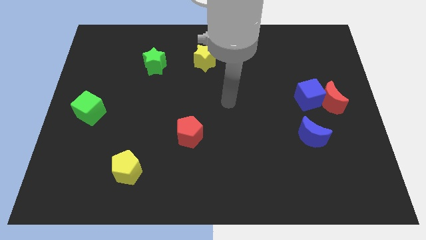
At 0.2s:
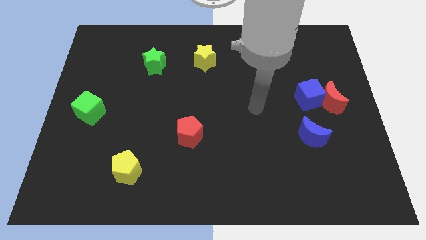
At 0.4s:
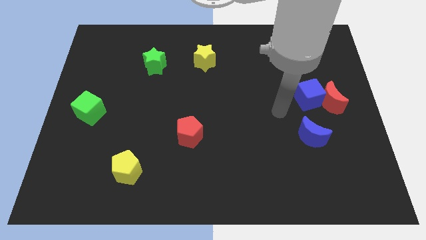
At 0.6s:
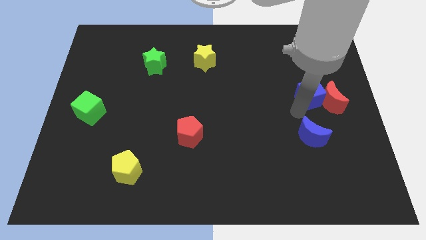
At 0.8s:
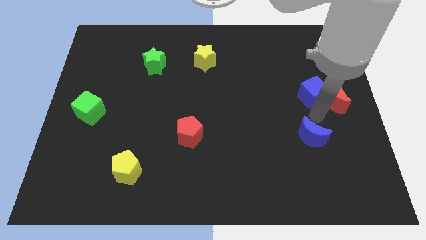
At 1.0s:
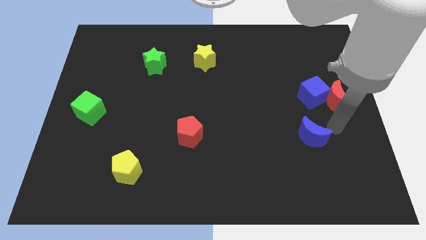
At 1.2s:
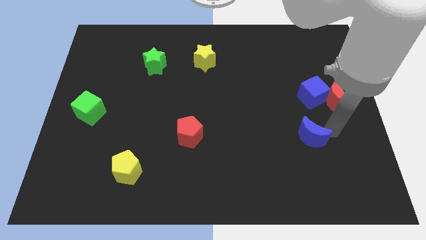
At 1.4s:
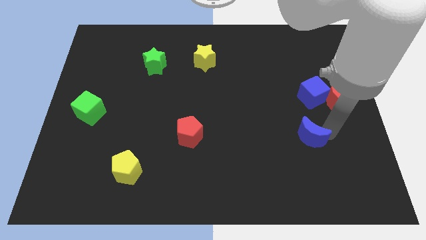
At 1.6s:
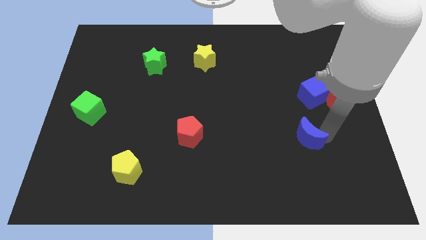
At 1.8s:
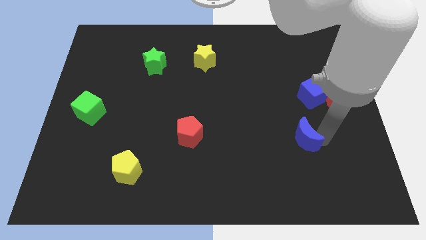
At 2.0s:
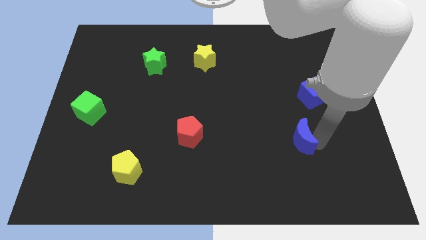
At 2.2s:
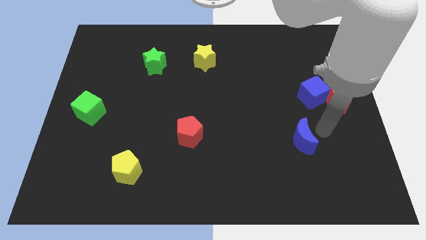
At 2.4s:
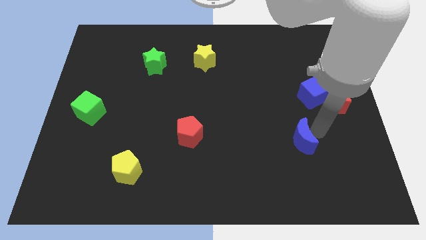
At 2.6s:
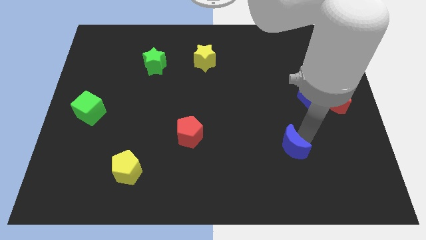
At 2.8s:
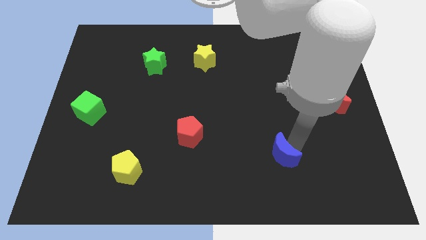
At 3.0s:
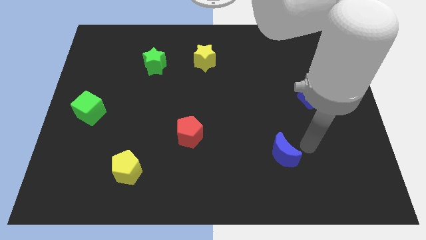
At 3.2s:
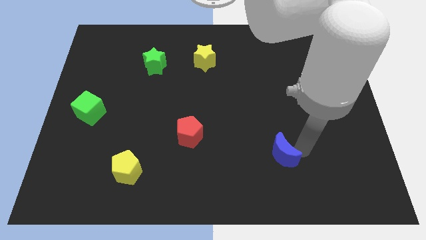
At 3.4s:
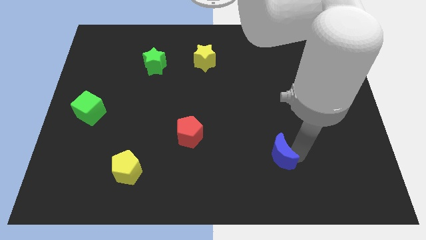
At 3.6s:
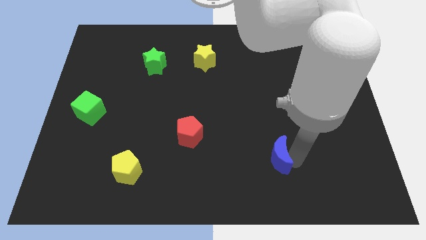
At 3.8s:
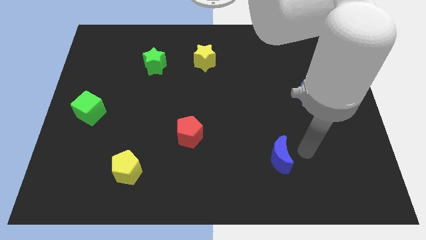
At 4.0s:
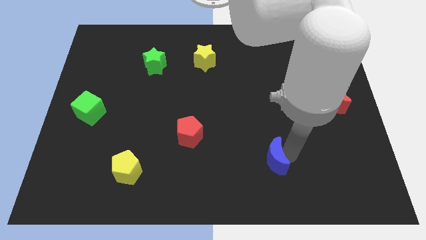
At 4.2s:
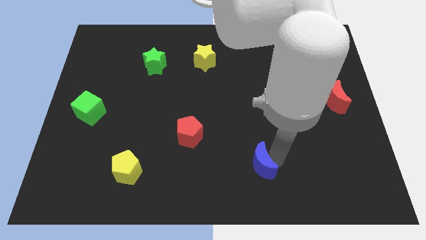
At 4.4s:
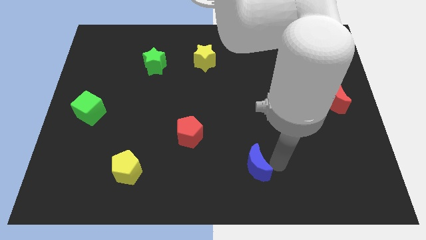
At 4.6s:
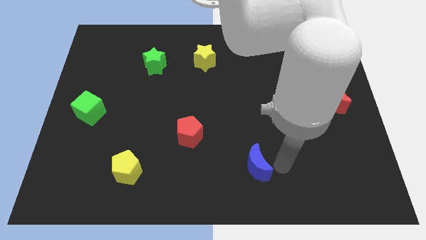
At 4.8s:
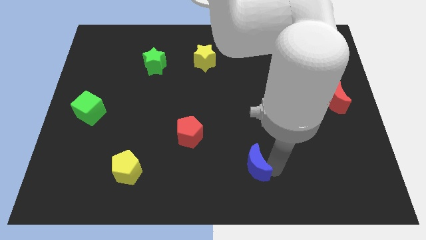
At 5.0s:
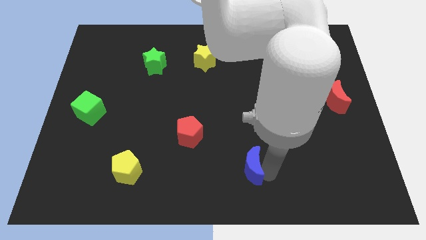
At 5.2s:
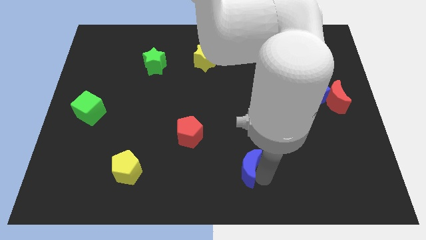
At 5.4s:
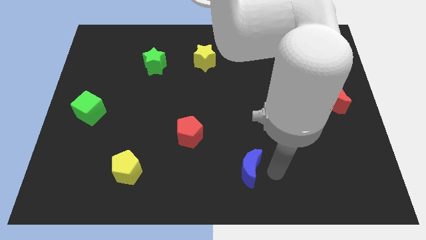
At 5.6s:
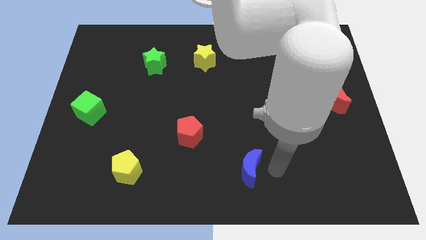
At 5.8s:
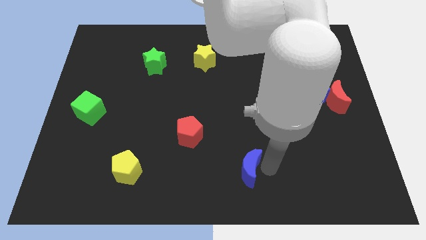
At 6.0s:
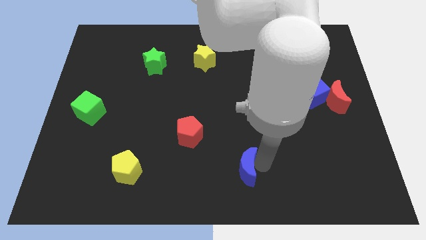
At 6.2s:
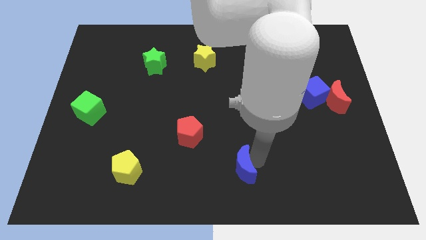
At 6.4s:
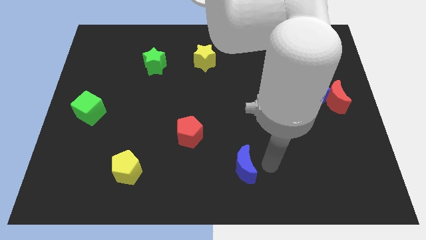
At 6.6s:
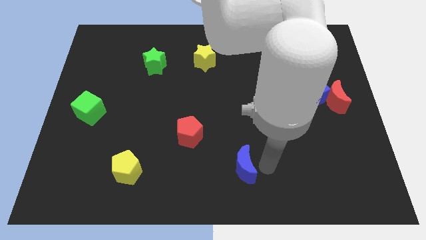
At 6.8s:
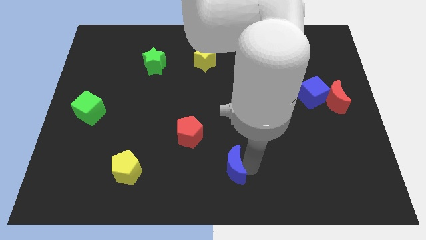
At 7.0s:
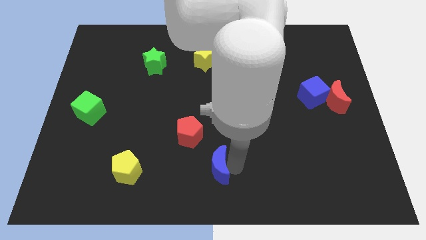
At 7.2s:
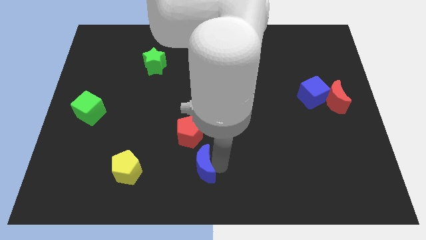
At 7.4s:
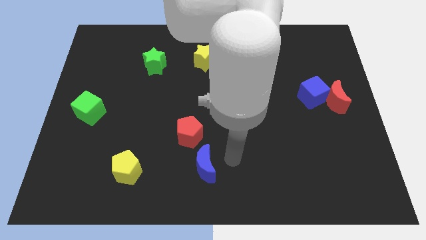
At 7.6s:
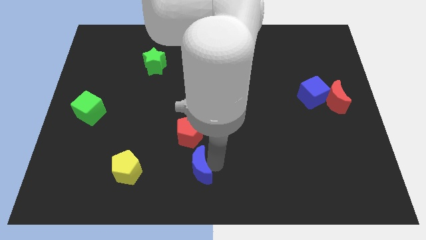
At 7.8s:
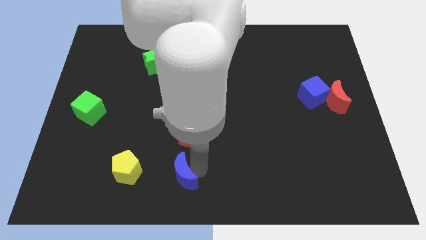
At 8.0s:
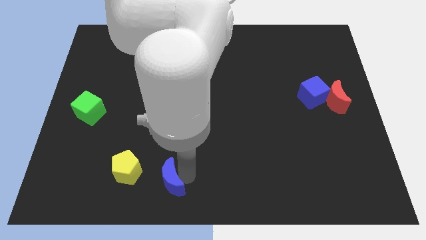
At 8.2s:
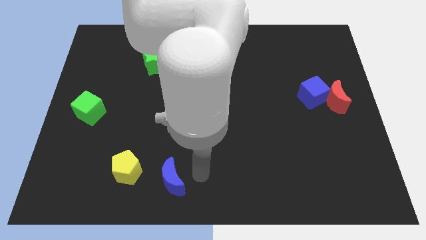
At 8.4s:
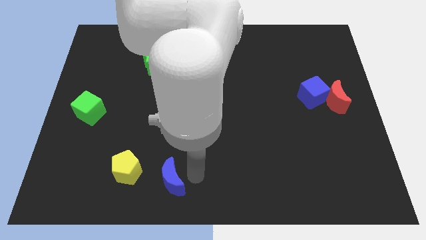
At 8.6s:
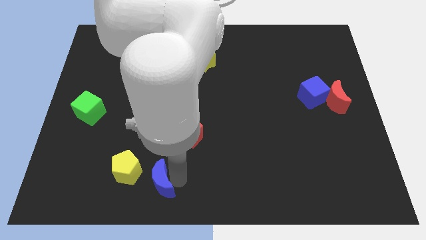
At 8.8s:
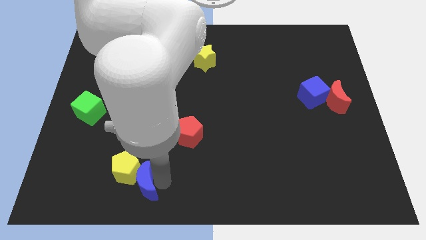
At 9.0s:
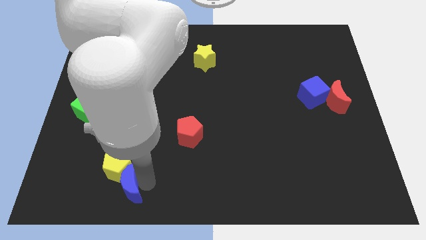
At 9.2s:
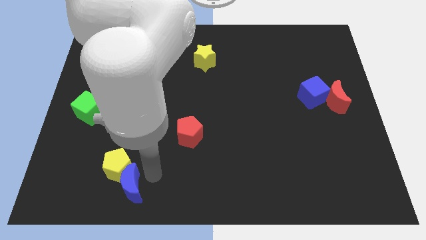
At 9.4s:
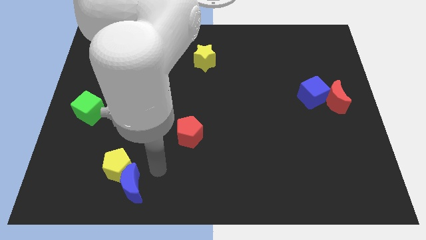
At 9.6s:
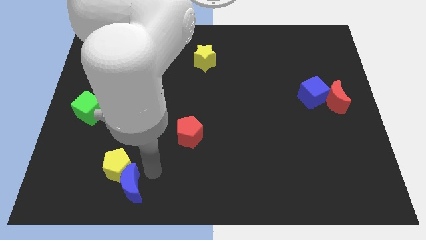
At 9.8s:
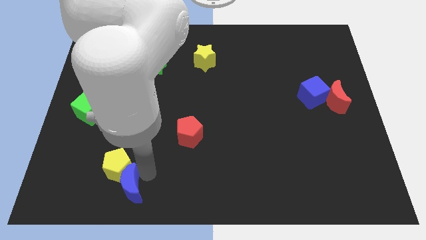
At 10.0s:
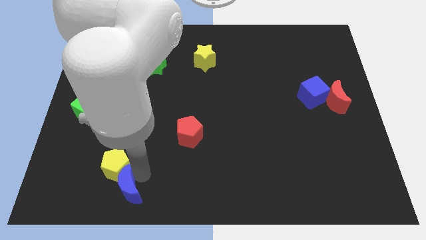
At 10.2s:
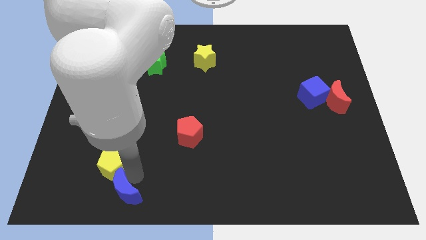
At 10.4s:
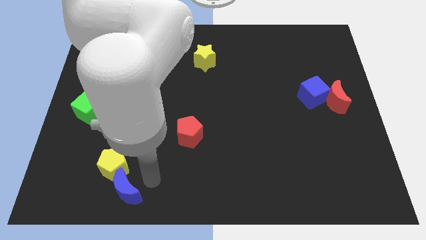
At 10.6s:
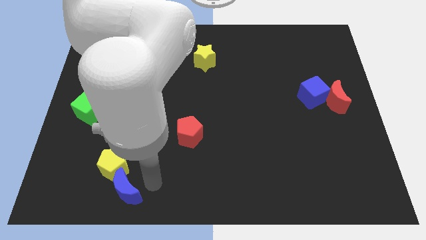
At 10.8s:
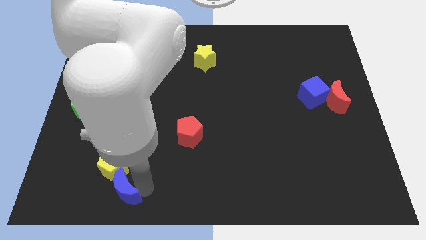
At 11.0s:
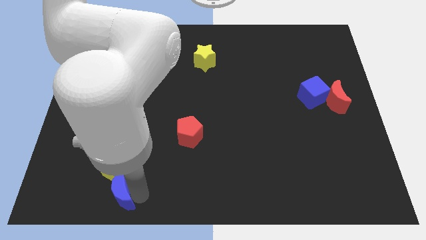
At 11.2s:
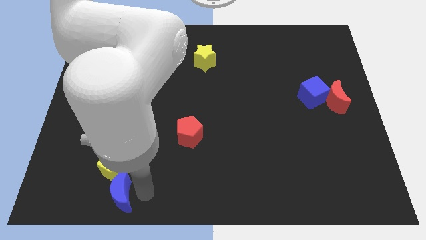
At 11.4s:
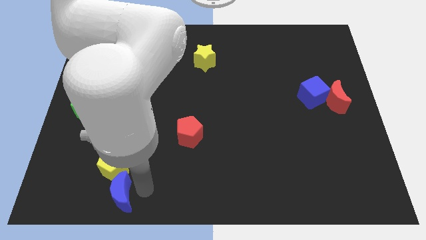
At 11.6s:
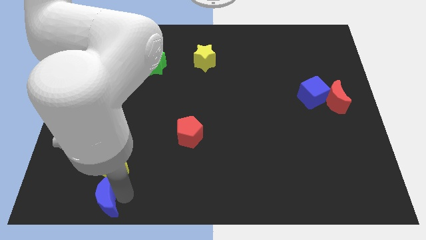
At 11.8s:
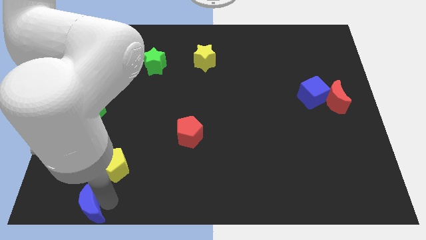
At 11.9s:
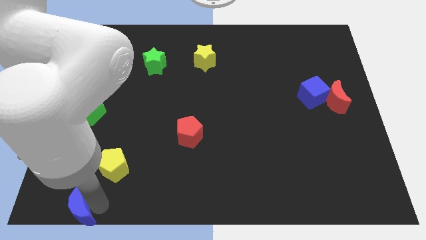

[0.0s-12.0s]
push the blue moon to the bottom left of the board

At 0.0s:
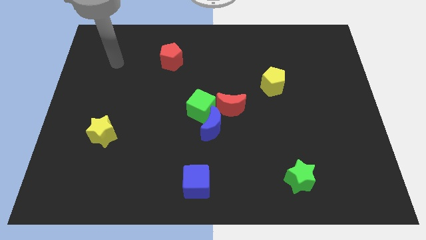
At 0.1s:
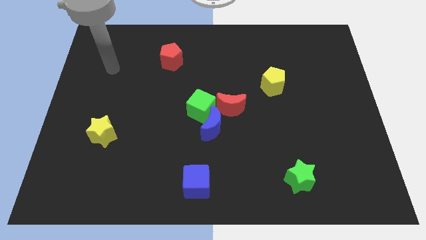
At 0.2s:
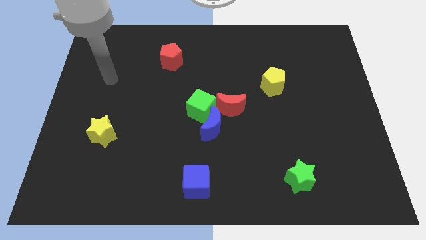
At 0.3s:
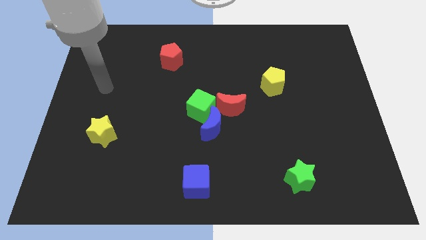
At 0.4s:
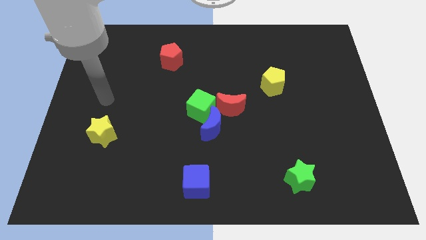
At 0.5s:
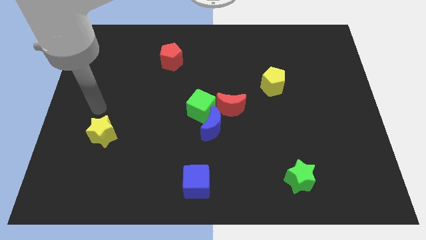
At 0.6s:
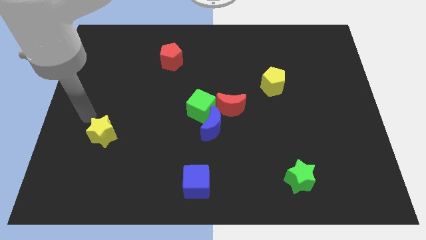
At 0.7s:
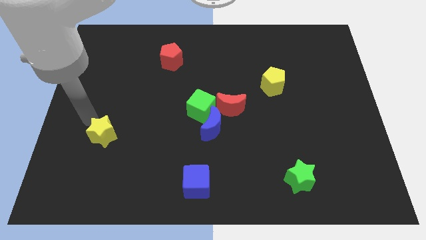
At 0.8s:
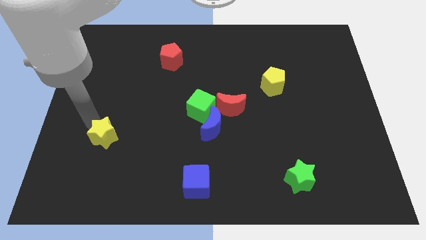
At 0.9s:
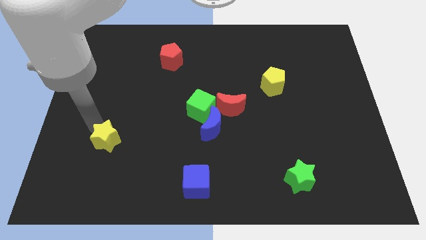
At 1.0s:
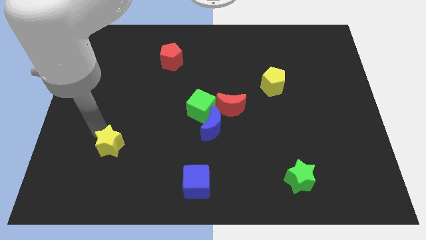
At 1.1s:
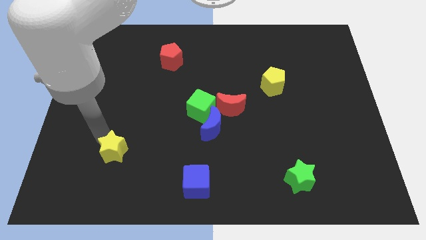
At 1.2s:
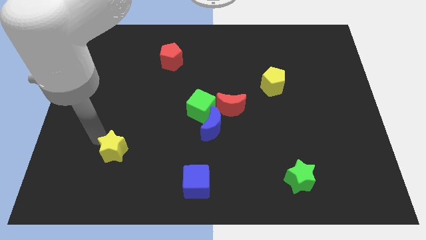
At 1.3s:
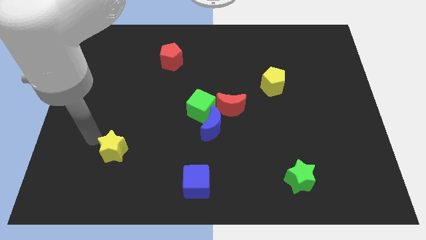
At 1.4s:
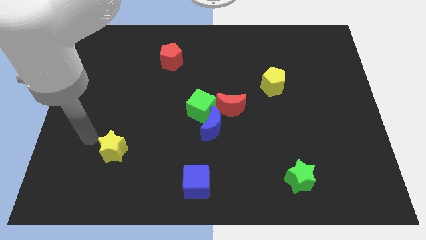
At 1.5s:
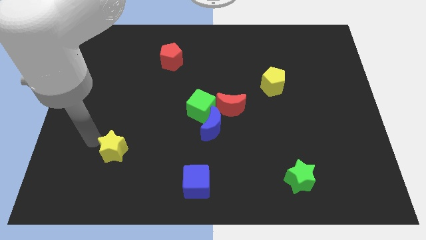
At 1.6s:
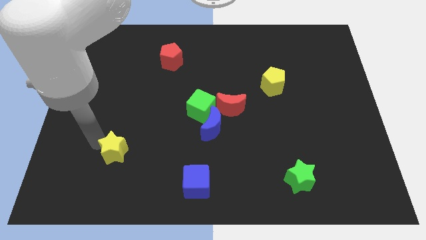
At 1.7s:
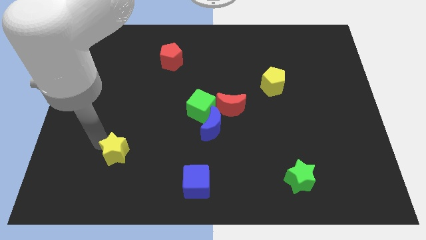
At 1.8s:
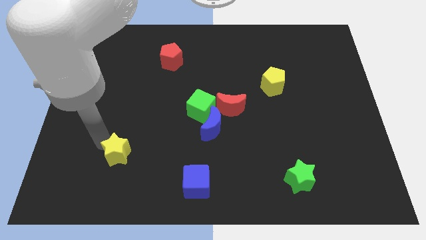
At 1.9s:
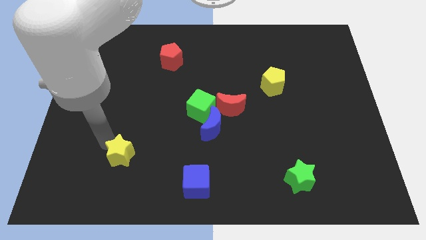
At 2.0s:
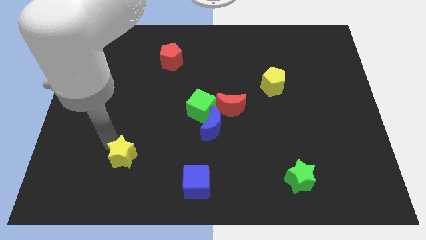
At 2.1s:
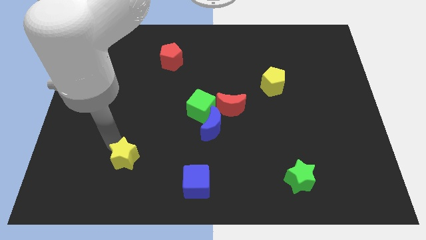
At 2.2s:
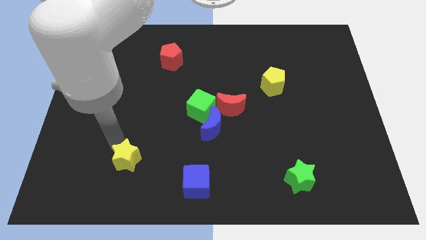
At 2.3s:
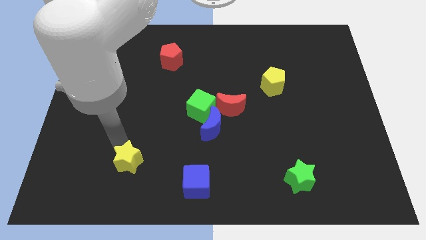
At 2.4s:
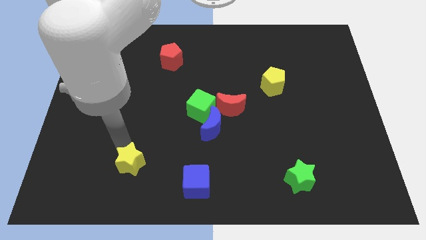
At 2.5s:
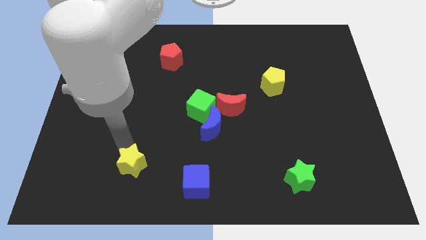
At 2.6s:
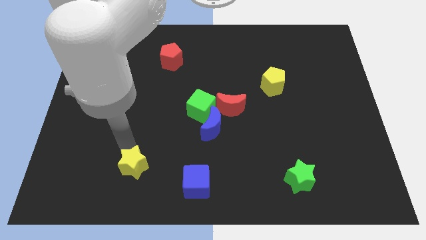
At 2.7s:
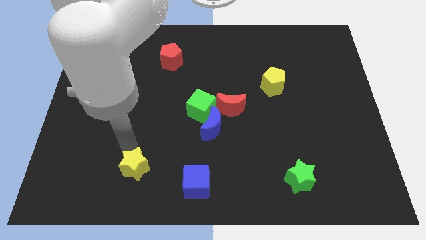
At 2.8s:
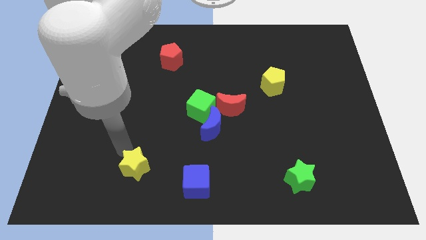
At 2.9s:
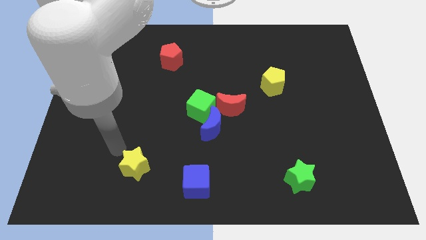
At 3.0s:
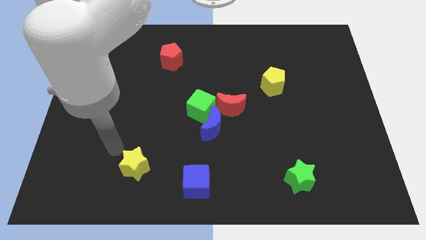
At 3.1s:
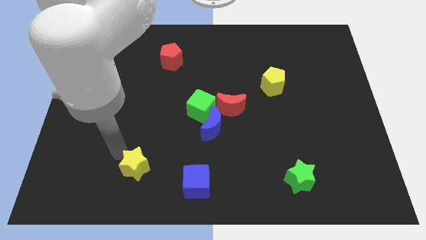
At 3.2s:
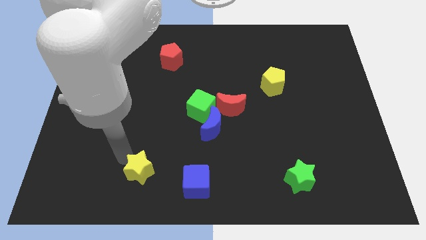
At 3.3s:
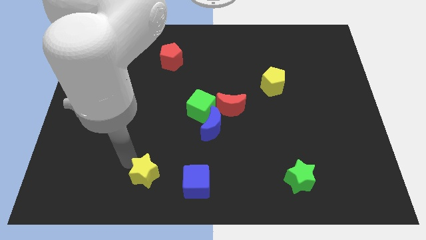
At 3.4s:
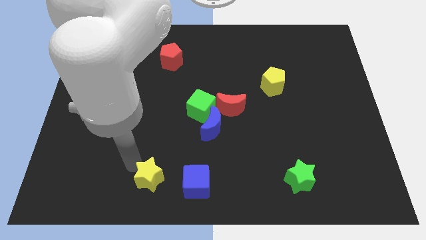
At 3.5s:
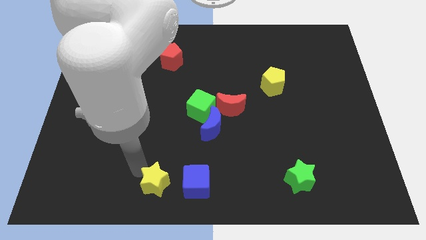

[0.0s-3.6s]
slide the yellow star to the bottom
